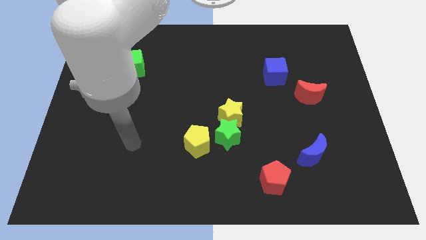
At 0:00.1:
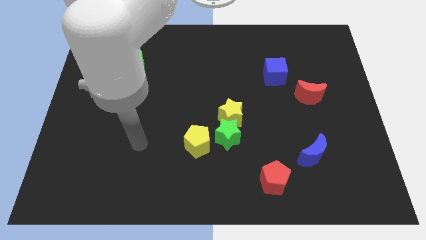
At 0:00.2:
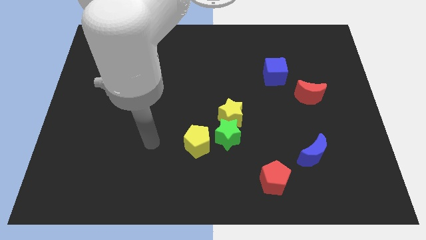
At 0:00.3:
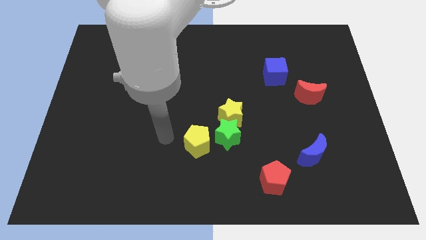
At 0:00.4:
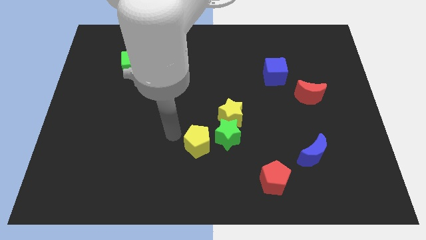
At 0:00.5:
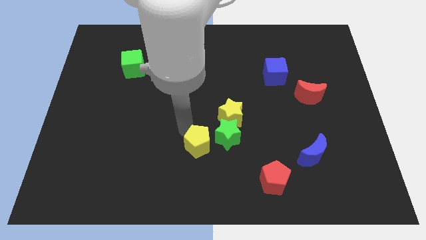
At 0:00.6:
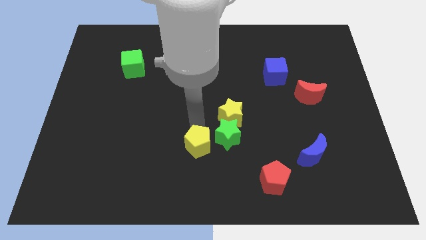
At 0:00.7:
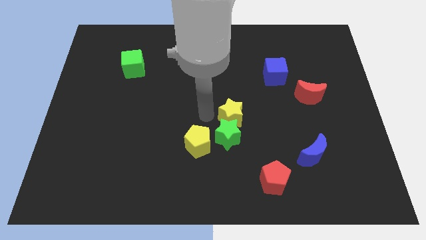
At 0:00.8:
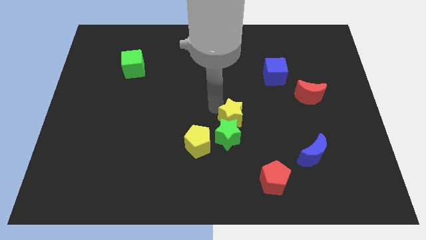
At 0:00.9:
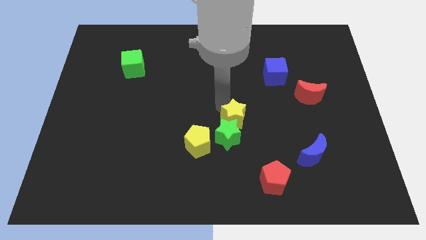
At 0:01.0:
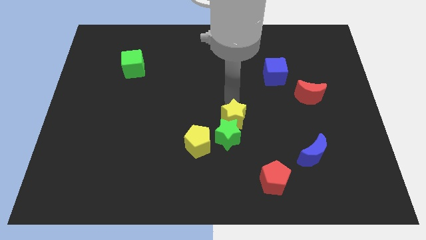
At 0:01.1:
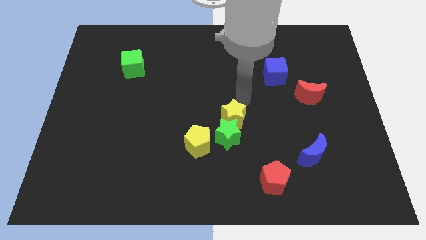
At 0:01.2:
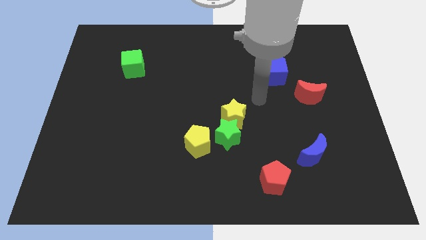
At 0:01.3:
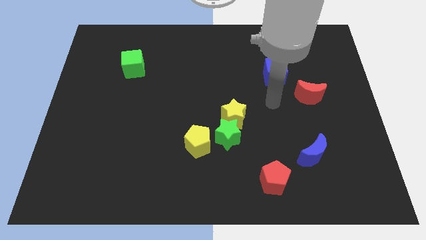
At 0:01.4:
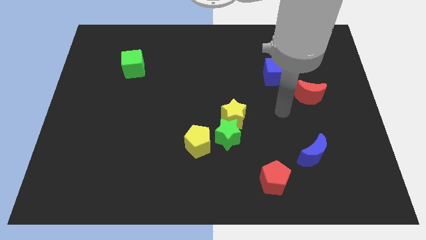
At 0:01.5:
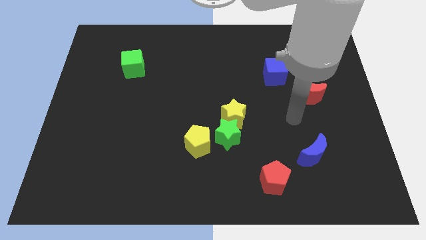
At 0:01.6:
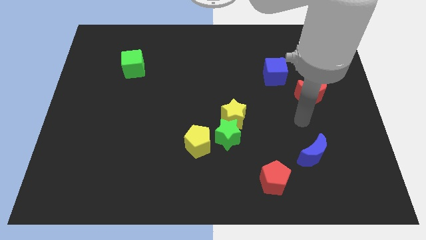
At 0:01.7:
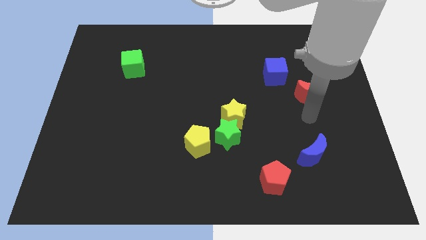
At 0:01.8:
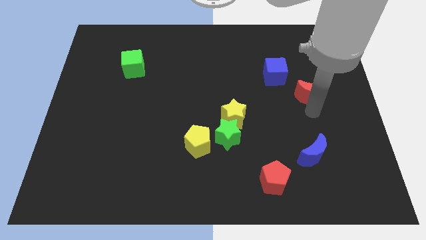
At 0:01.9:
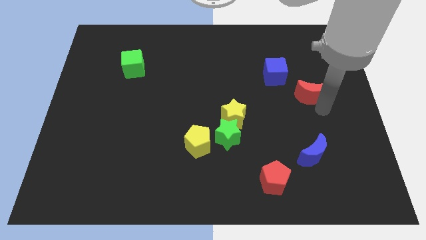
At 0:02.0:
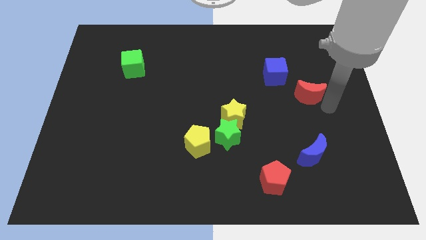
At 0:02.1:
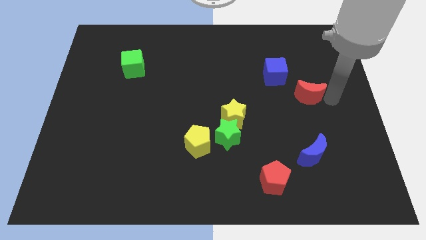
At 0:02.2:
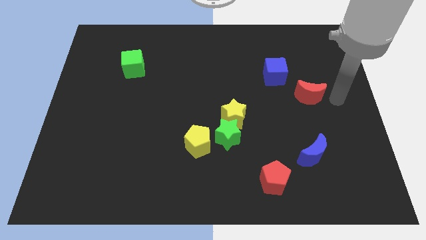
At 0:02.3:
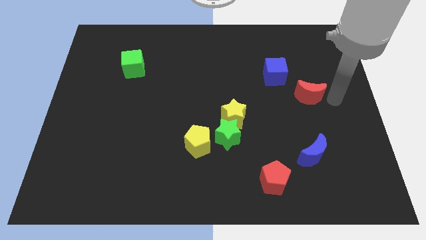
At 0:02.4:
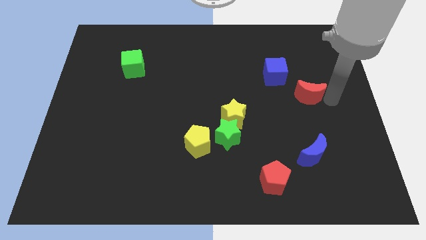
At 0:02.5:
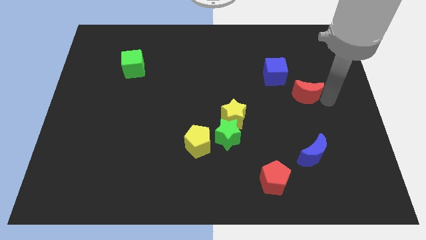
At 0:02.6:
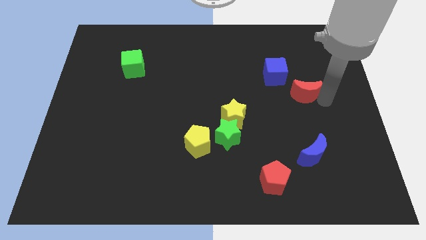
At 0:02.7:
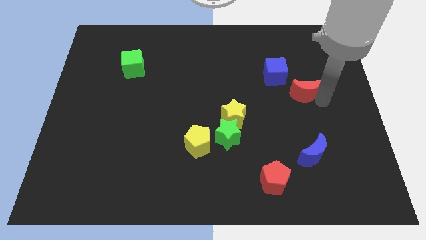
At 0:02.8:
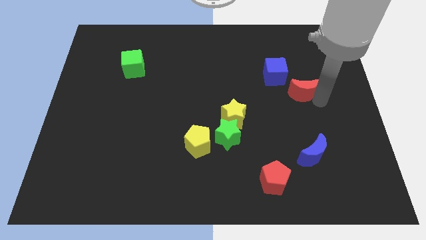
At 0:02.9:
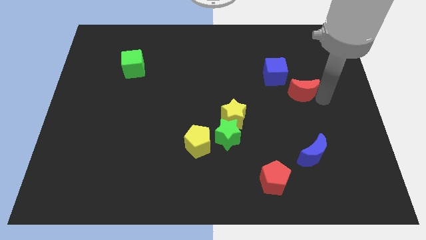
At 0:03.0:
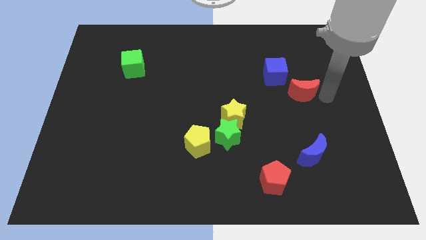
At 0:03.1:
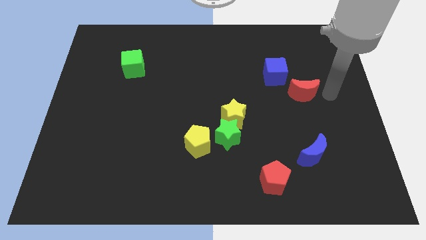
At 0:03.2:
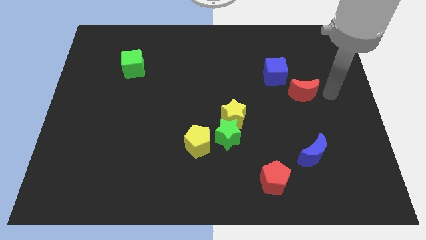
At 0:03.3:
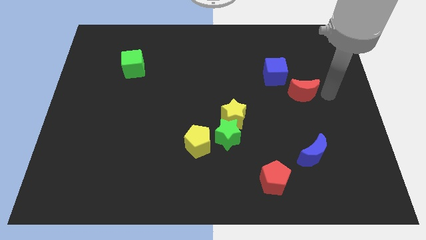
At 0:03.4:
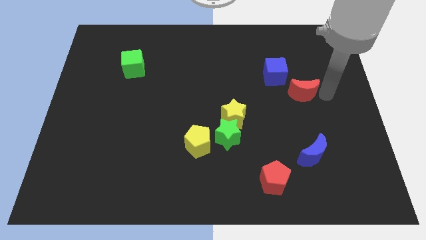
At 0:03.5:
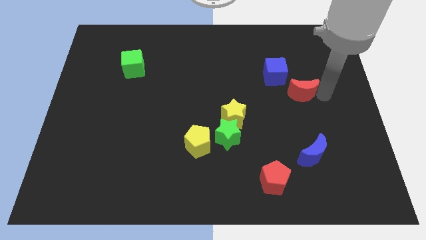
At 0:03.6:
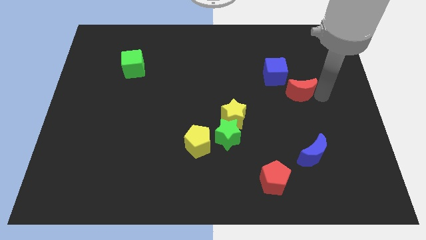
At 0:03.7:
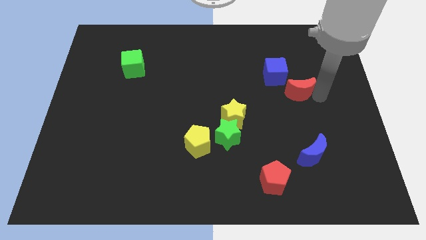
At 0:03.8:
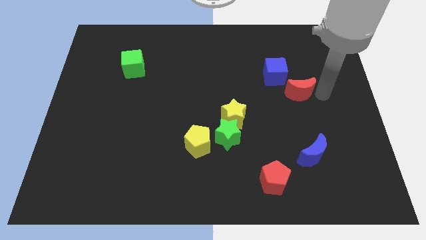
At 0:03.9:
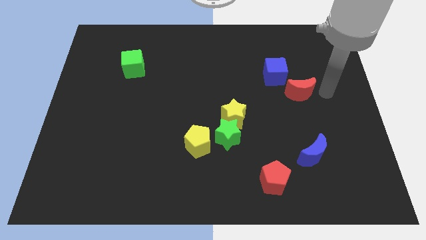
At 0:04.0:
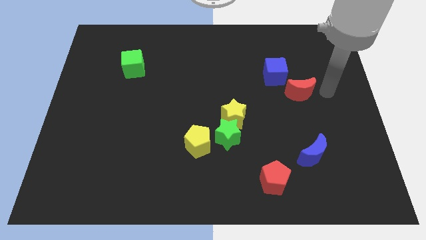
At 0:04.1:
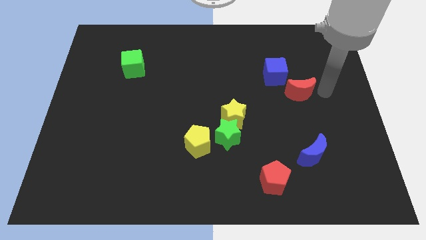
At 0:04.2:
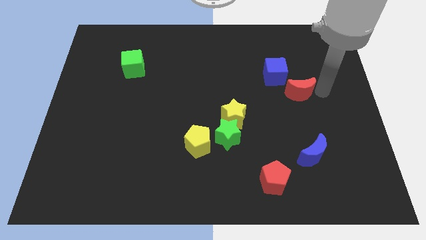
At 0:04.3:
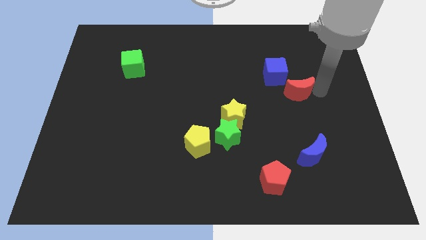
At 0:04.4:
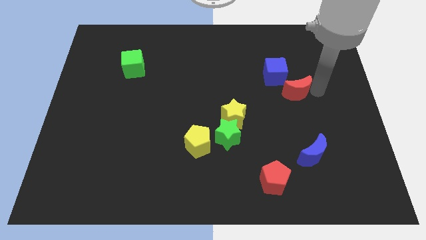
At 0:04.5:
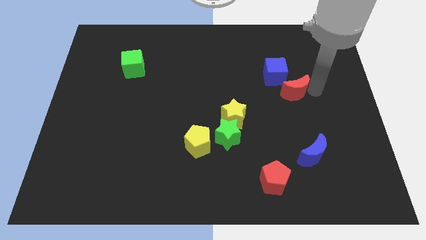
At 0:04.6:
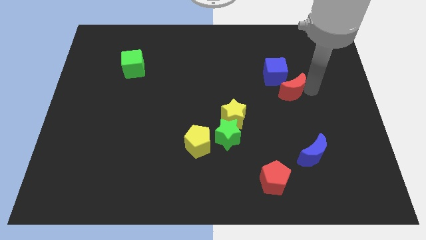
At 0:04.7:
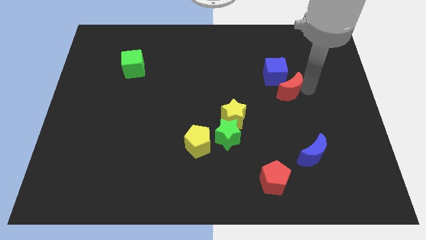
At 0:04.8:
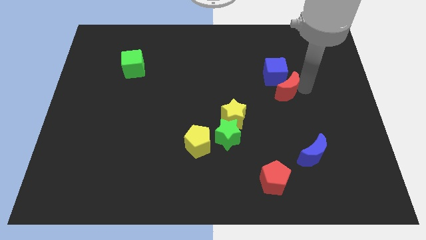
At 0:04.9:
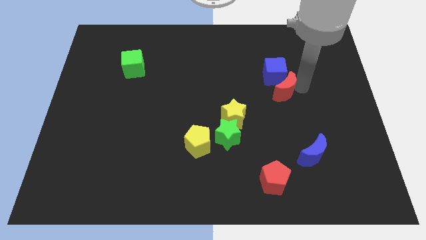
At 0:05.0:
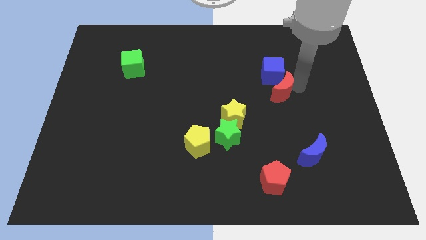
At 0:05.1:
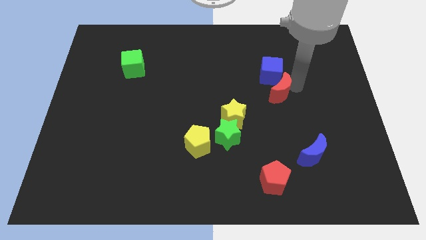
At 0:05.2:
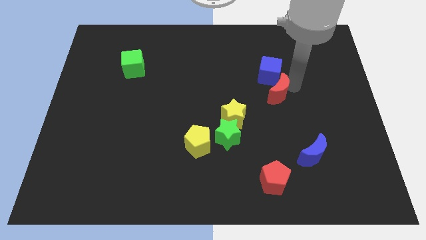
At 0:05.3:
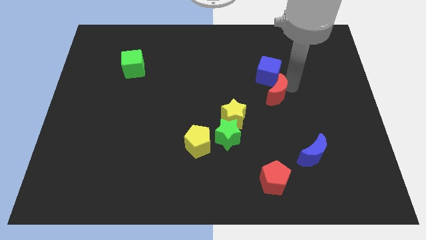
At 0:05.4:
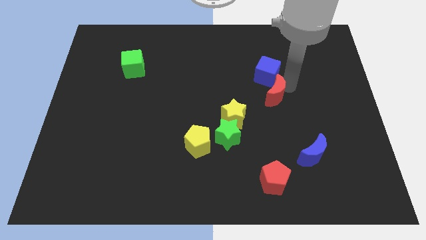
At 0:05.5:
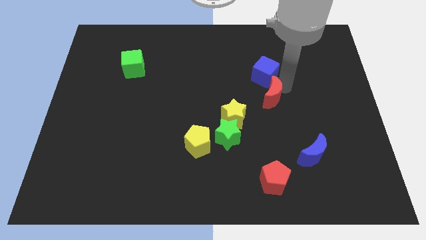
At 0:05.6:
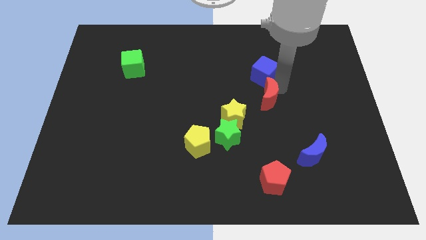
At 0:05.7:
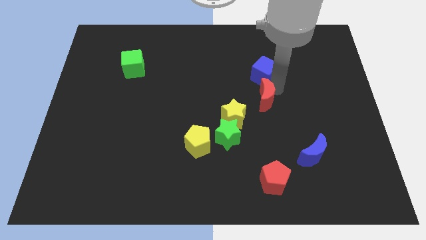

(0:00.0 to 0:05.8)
put the red moon to the center of the board

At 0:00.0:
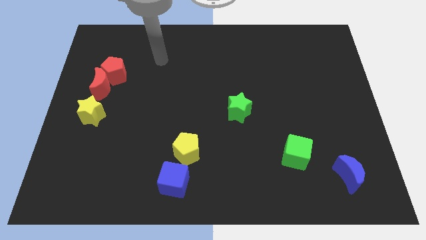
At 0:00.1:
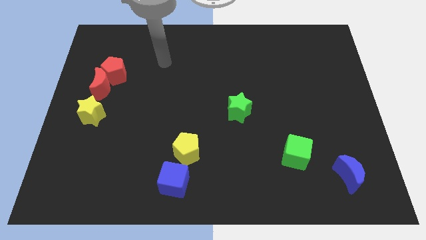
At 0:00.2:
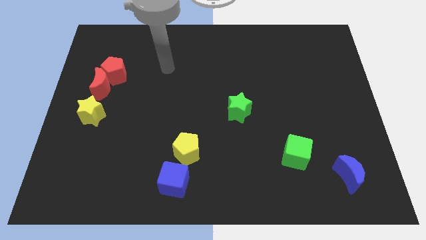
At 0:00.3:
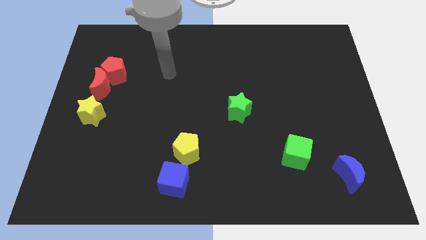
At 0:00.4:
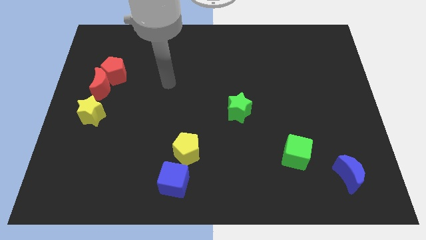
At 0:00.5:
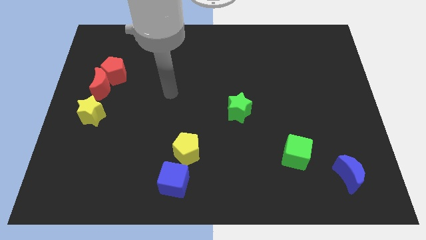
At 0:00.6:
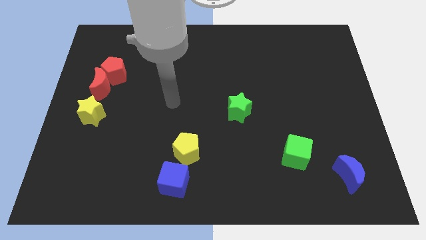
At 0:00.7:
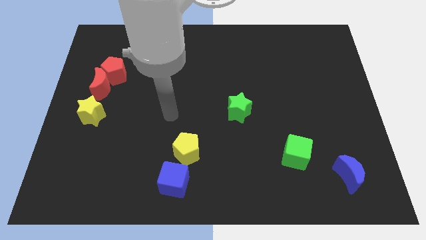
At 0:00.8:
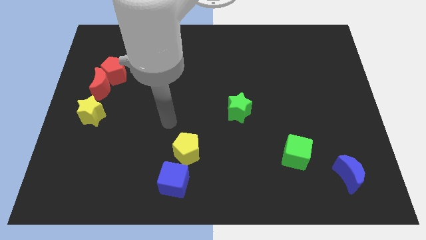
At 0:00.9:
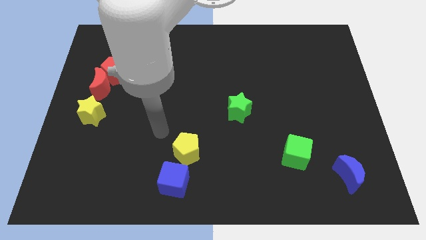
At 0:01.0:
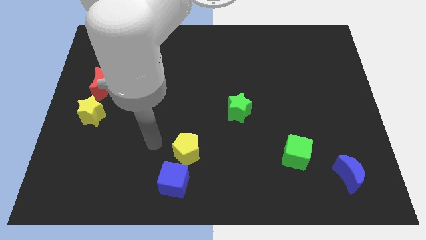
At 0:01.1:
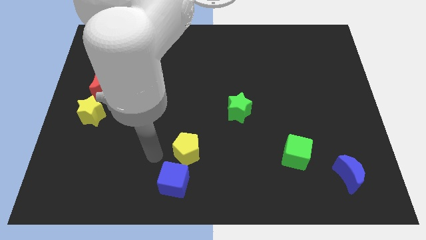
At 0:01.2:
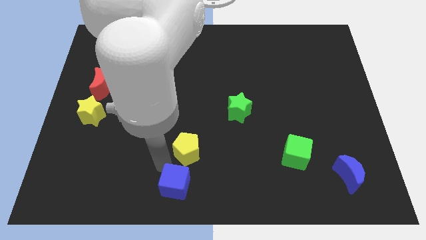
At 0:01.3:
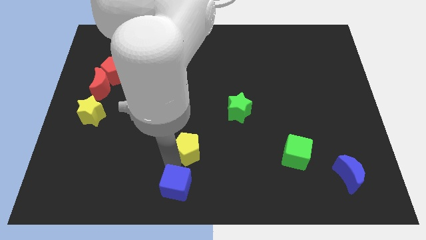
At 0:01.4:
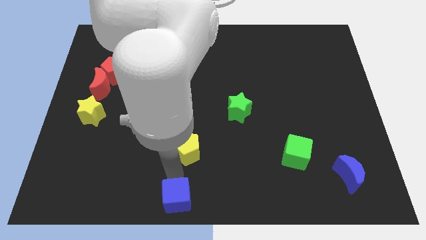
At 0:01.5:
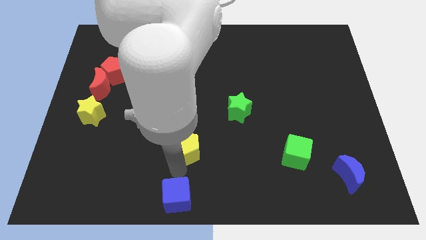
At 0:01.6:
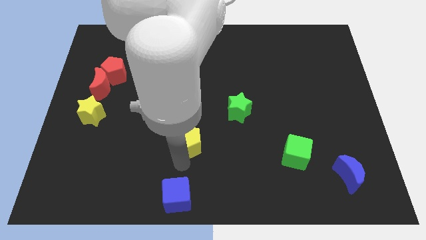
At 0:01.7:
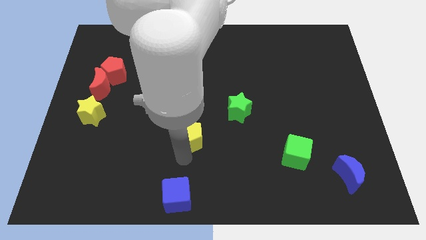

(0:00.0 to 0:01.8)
slide the yellow pentagon to the middle of the board
